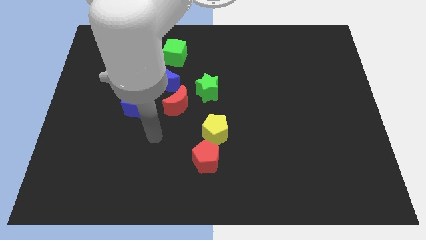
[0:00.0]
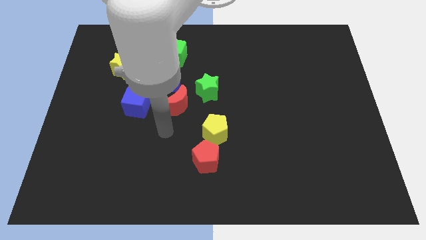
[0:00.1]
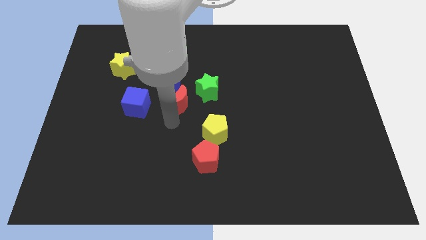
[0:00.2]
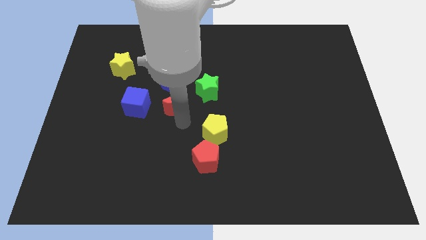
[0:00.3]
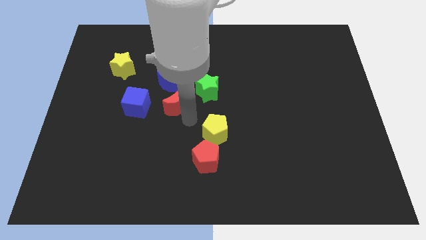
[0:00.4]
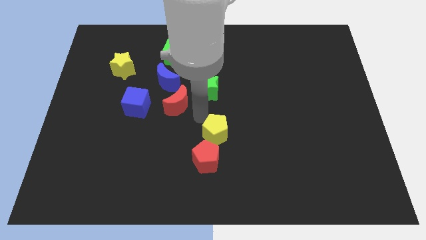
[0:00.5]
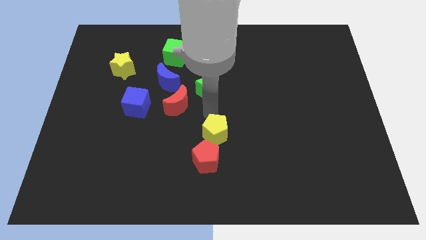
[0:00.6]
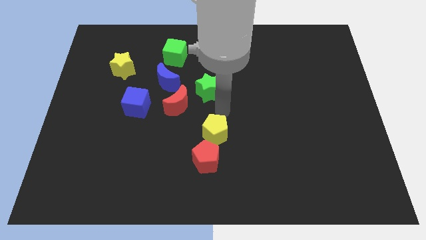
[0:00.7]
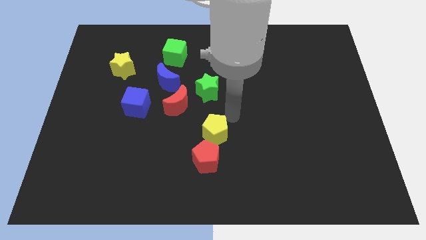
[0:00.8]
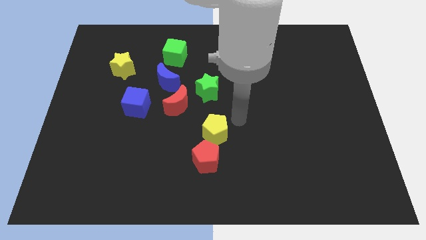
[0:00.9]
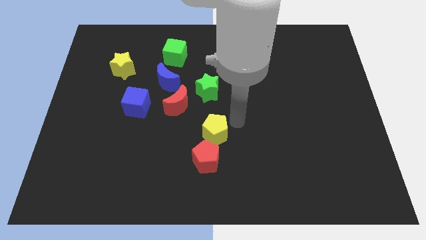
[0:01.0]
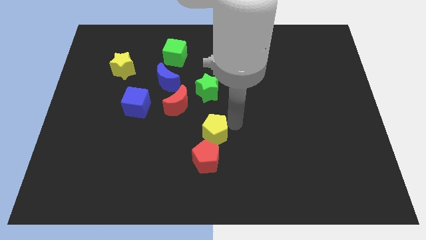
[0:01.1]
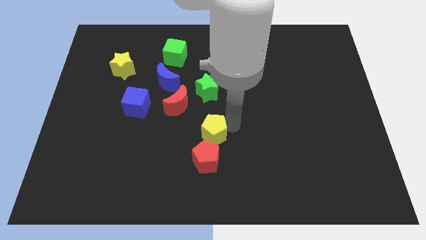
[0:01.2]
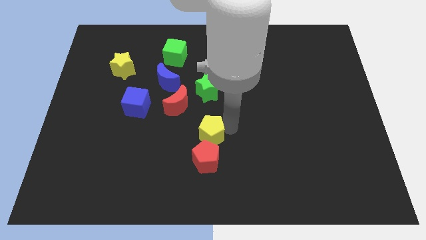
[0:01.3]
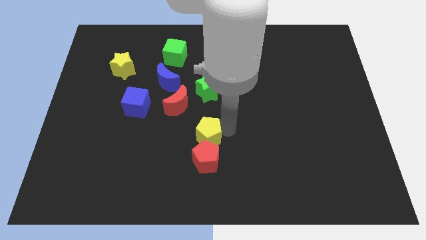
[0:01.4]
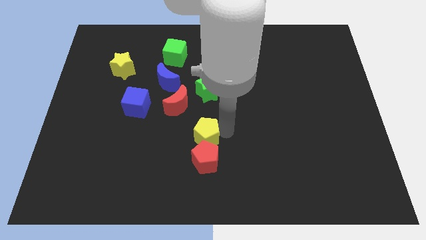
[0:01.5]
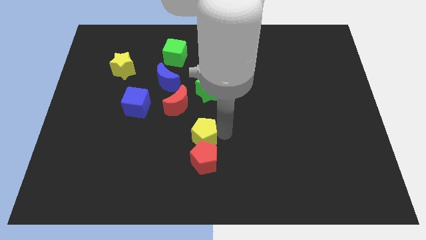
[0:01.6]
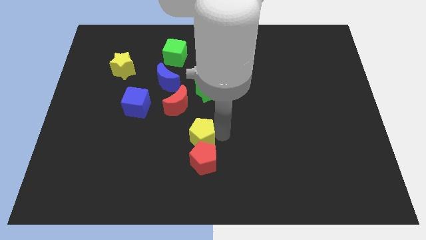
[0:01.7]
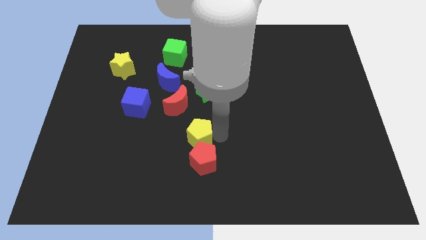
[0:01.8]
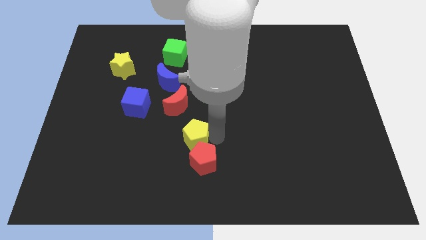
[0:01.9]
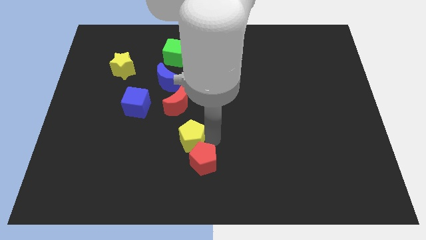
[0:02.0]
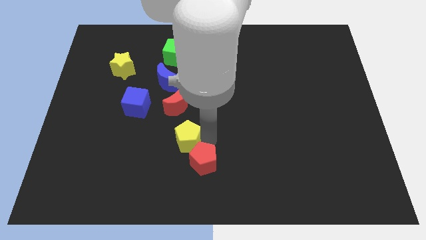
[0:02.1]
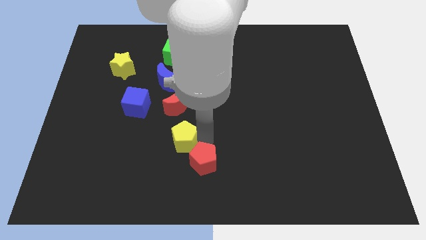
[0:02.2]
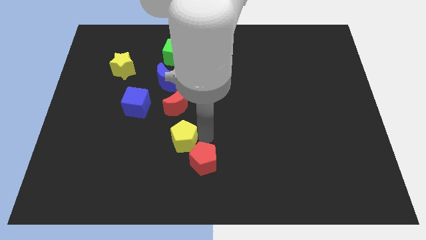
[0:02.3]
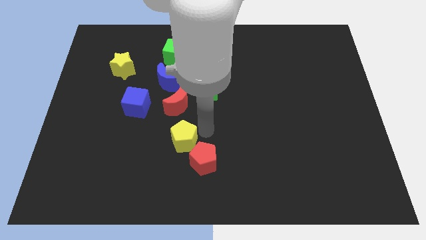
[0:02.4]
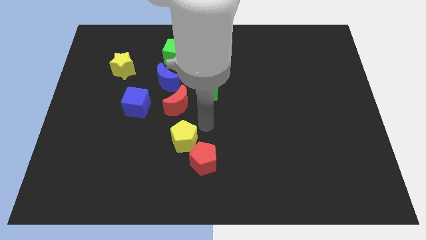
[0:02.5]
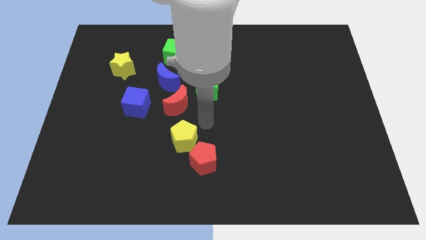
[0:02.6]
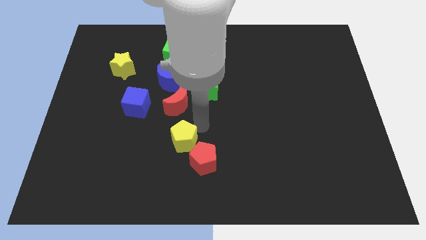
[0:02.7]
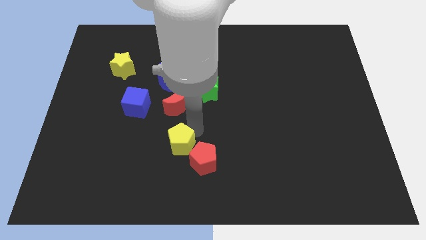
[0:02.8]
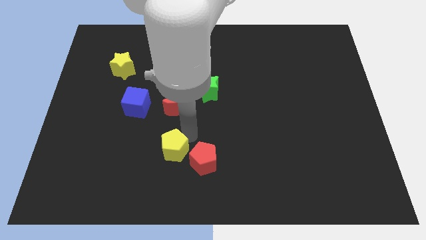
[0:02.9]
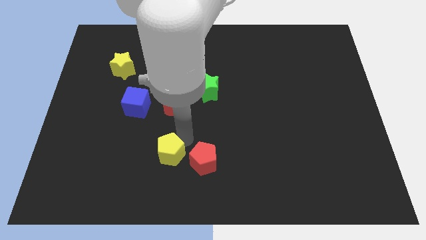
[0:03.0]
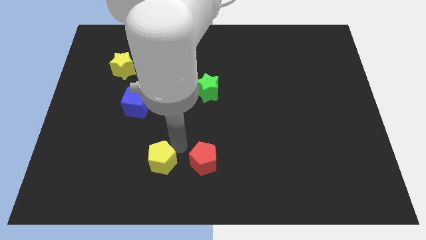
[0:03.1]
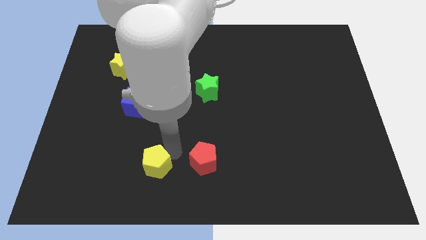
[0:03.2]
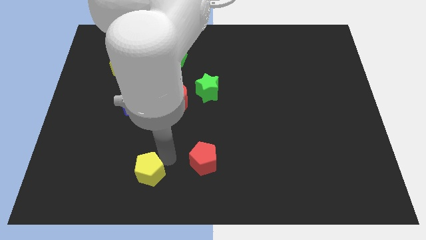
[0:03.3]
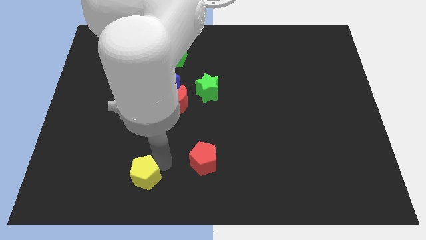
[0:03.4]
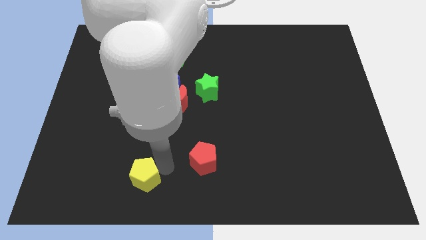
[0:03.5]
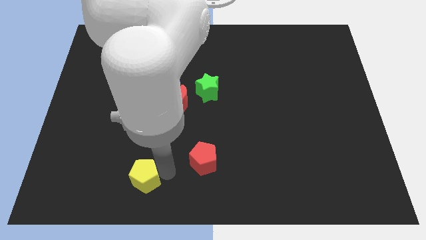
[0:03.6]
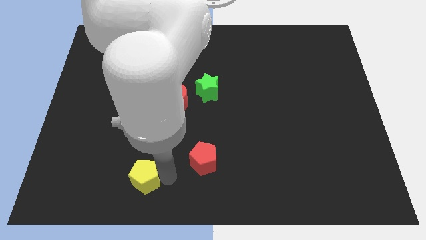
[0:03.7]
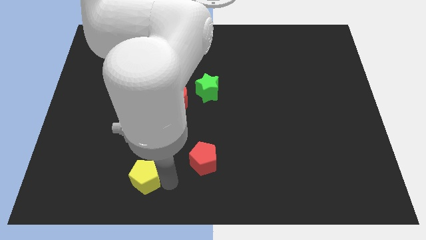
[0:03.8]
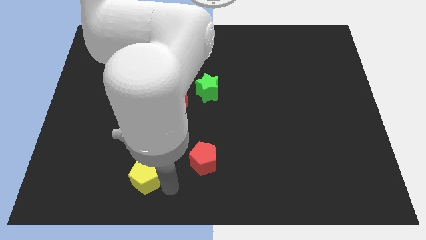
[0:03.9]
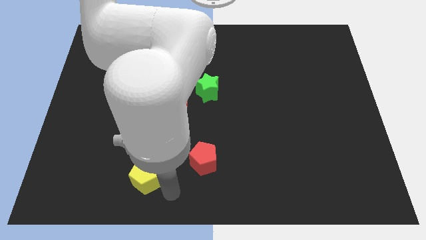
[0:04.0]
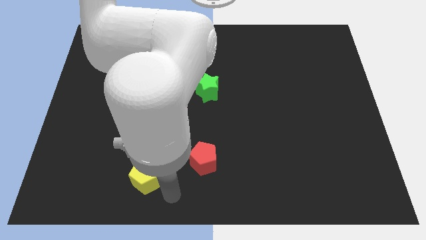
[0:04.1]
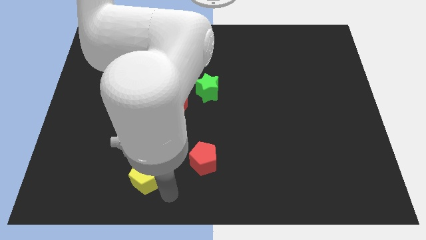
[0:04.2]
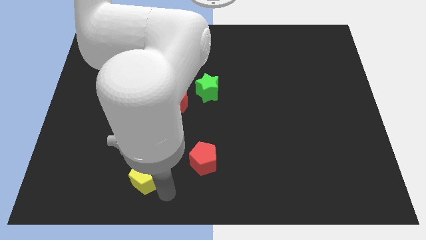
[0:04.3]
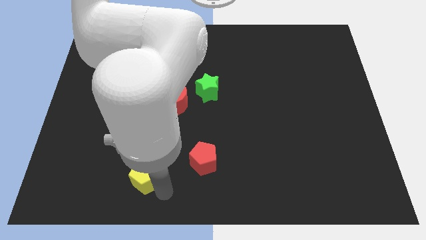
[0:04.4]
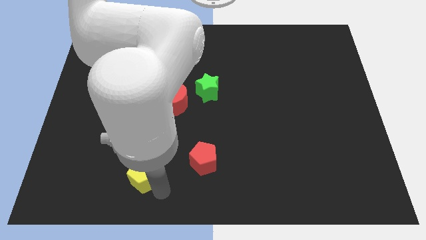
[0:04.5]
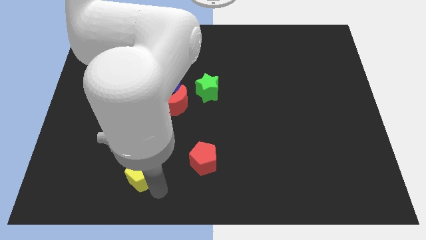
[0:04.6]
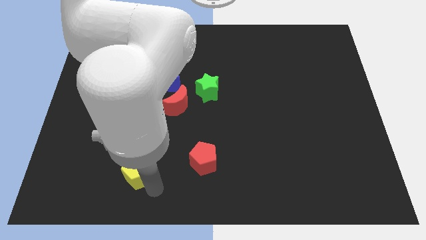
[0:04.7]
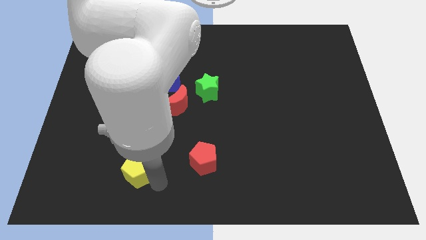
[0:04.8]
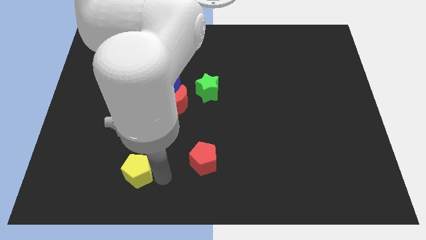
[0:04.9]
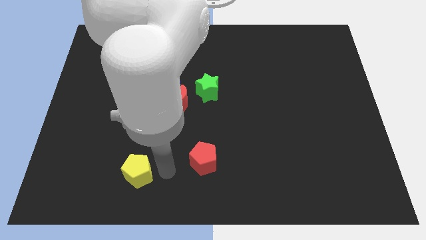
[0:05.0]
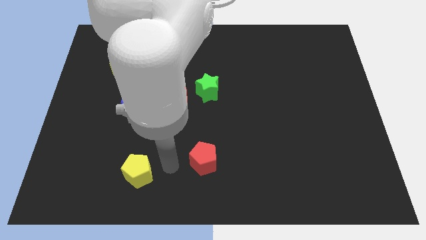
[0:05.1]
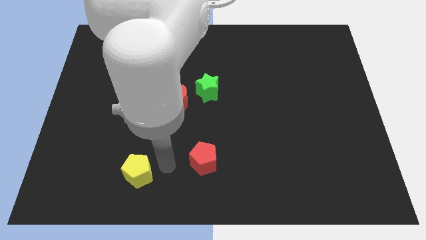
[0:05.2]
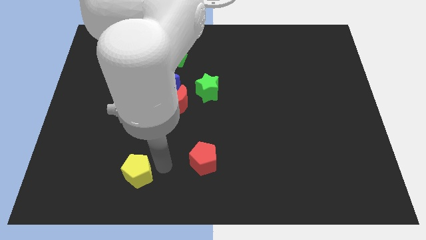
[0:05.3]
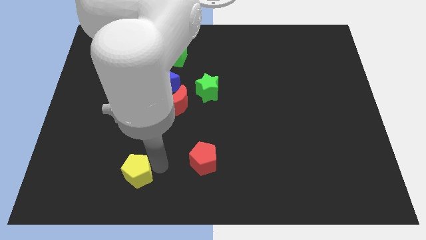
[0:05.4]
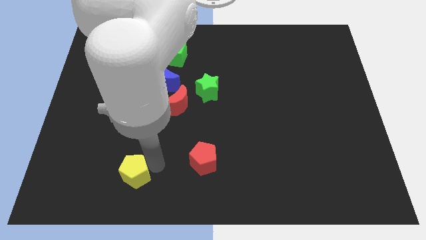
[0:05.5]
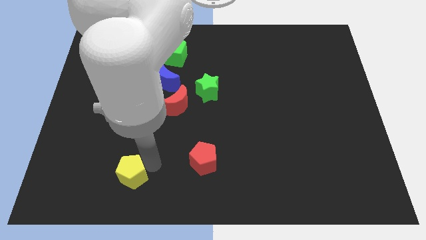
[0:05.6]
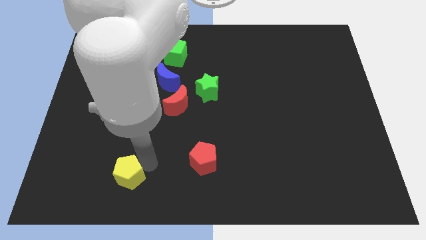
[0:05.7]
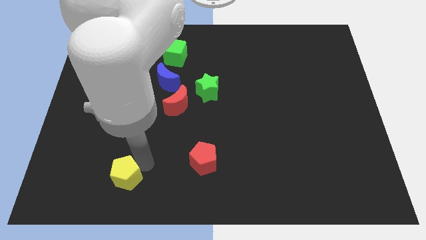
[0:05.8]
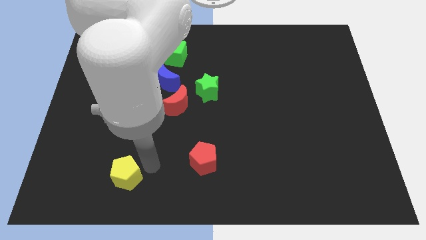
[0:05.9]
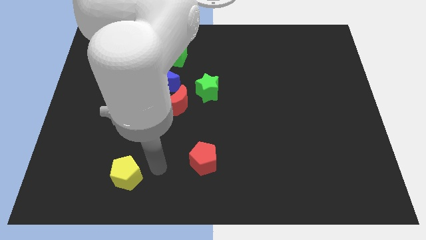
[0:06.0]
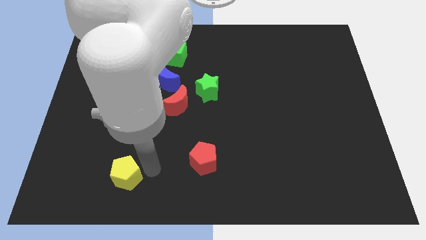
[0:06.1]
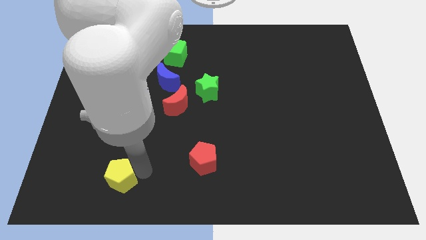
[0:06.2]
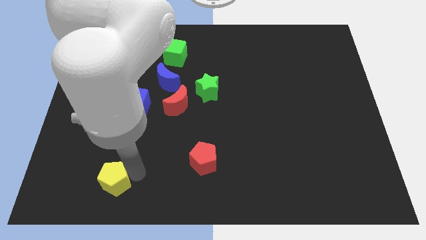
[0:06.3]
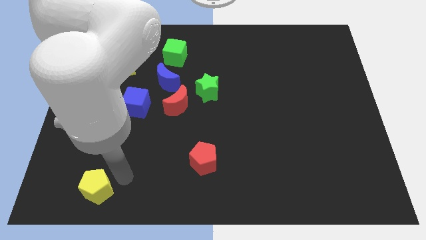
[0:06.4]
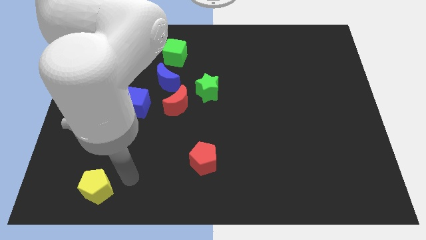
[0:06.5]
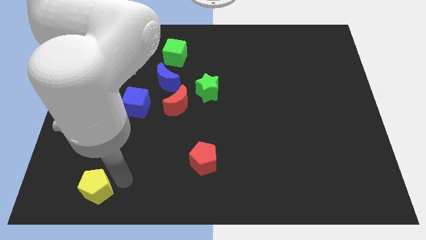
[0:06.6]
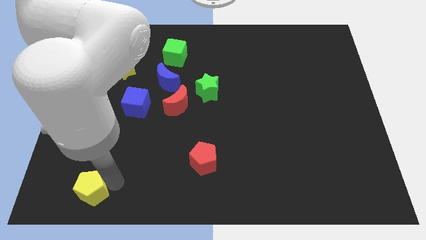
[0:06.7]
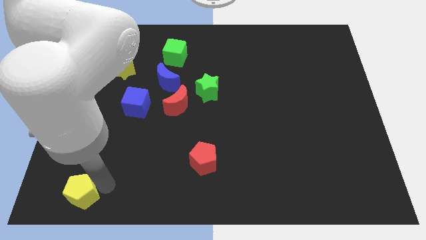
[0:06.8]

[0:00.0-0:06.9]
push the yellow pentagon to the bottom left of the board

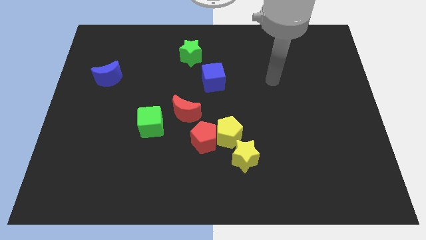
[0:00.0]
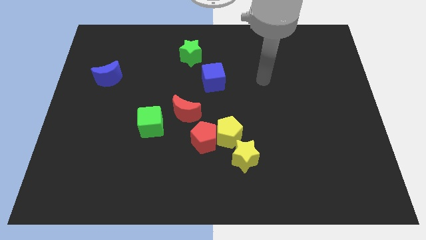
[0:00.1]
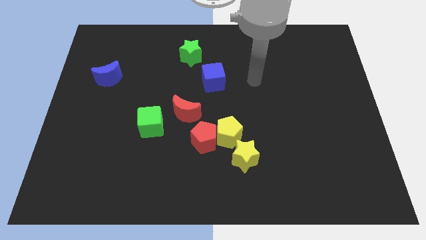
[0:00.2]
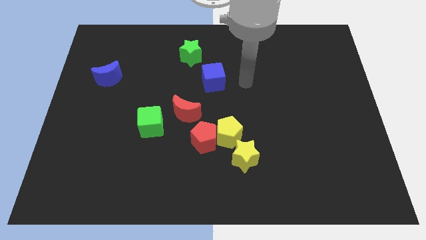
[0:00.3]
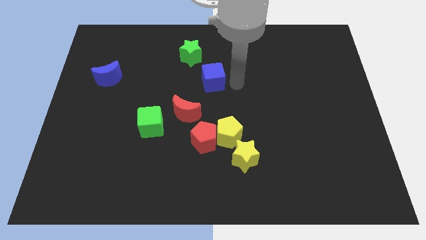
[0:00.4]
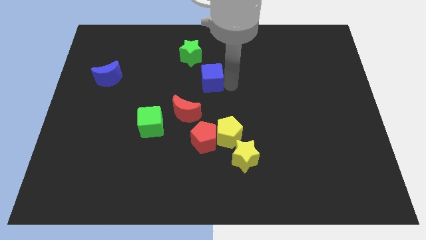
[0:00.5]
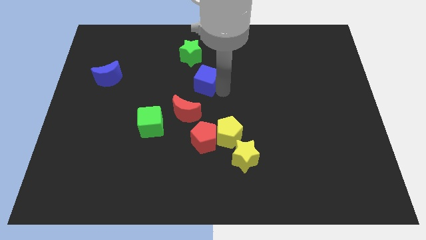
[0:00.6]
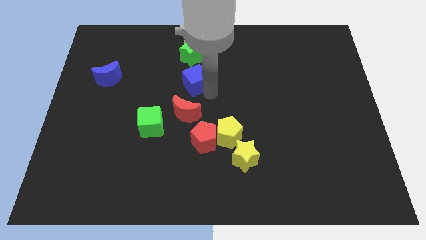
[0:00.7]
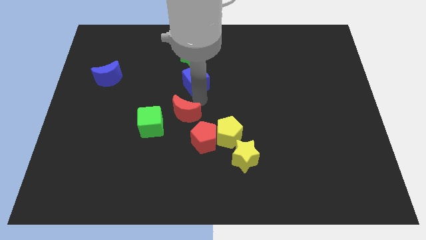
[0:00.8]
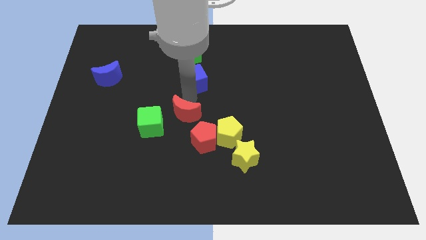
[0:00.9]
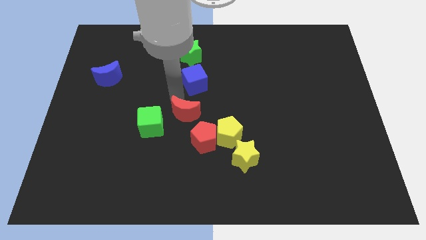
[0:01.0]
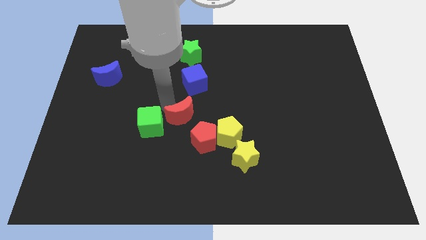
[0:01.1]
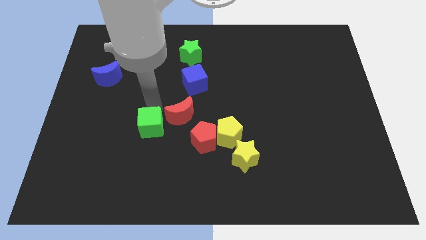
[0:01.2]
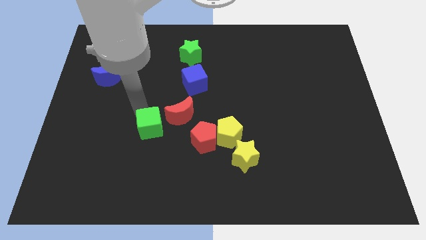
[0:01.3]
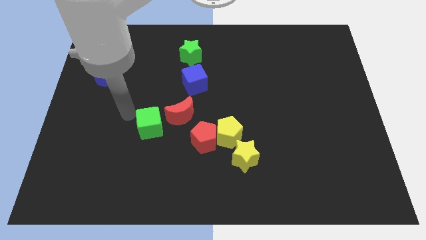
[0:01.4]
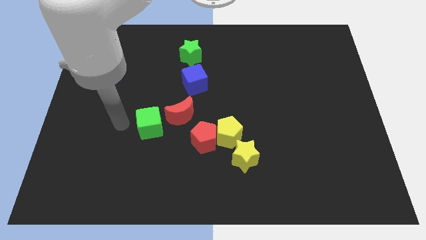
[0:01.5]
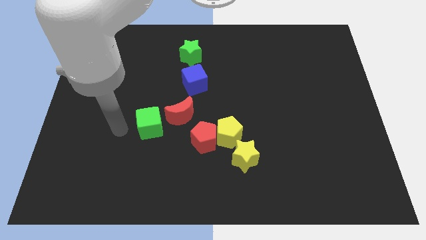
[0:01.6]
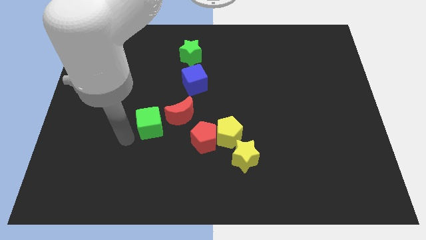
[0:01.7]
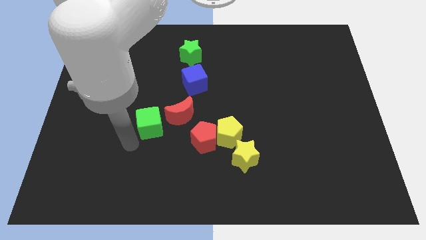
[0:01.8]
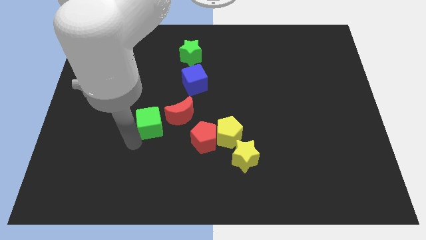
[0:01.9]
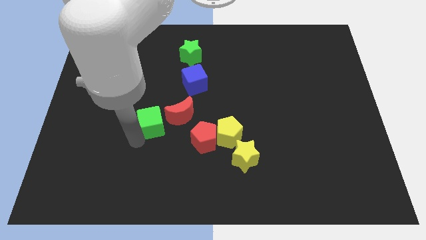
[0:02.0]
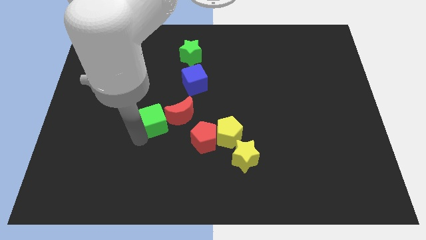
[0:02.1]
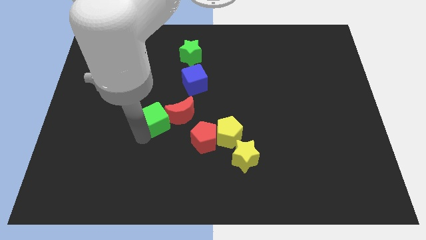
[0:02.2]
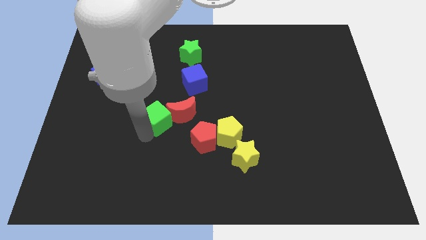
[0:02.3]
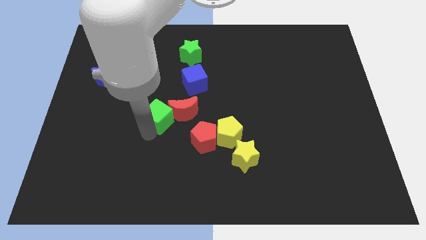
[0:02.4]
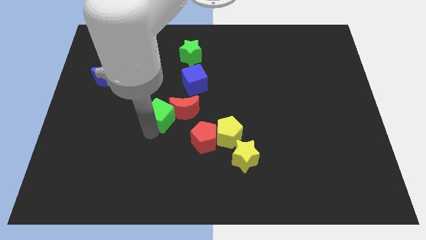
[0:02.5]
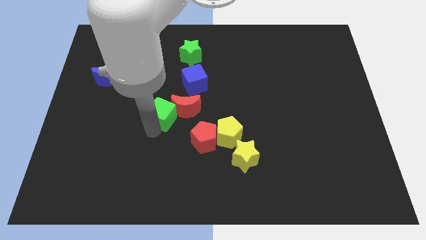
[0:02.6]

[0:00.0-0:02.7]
put the green cube to the middle of the board
